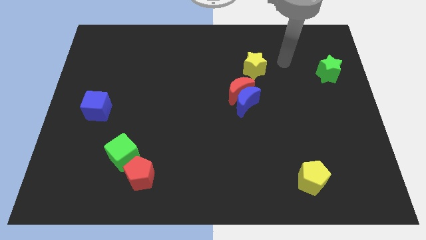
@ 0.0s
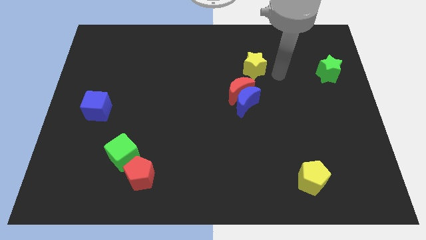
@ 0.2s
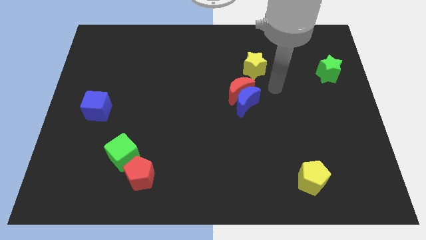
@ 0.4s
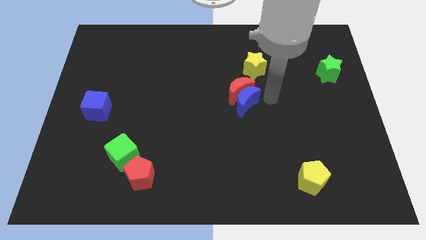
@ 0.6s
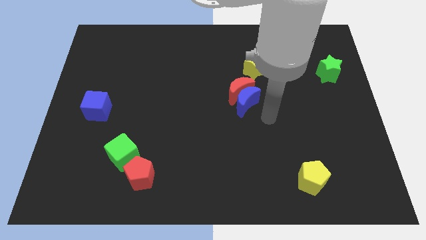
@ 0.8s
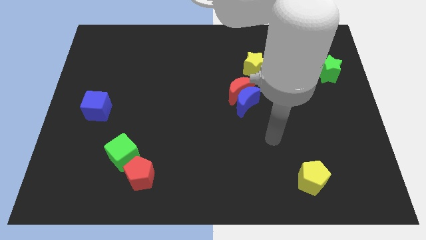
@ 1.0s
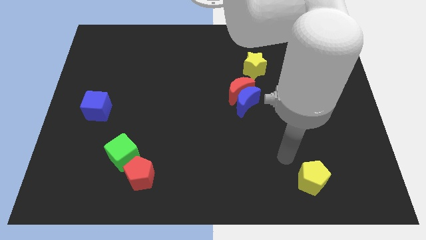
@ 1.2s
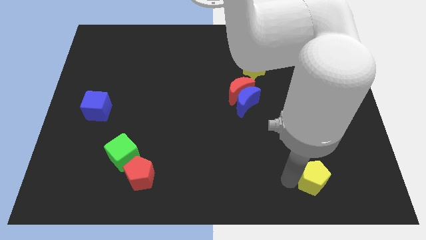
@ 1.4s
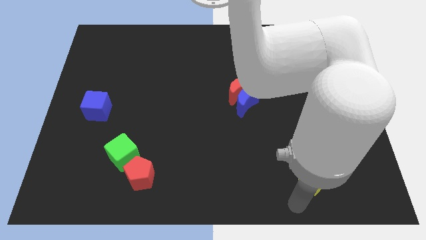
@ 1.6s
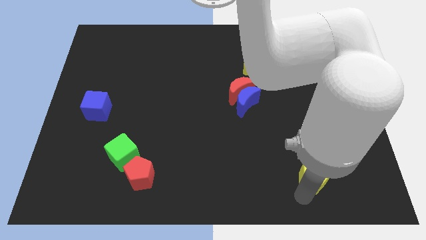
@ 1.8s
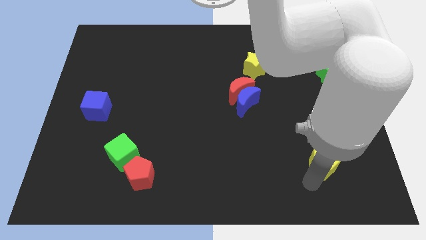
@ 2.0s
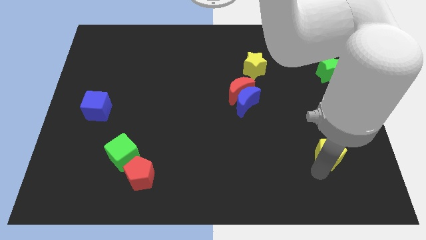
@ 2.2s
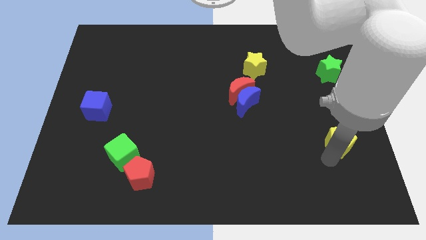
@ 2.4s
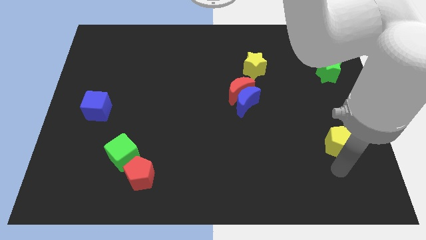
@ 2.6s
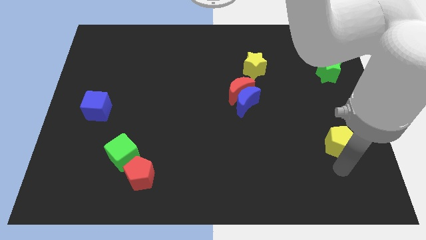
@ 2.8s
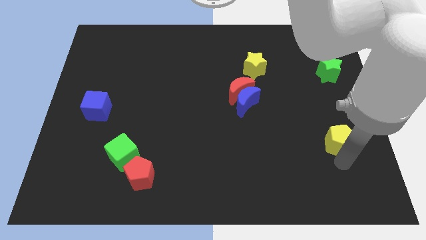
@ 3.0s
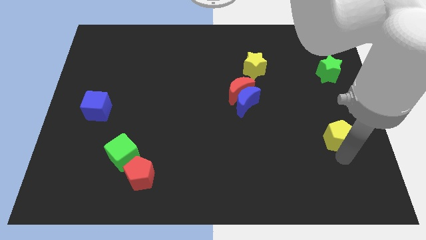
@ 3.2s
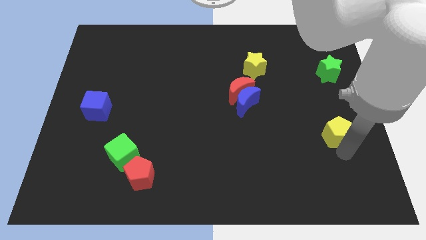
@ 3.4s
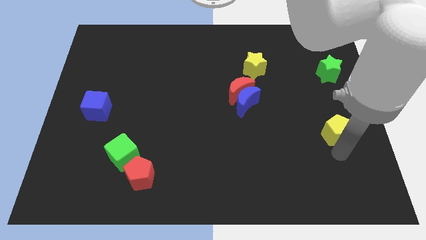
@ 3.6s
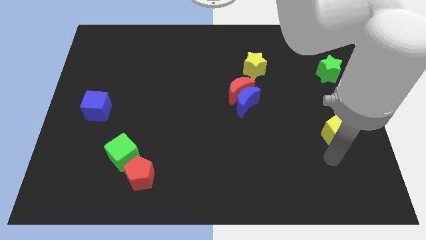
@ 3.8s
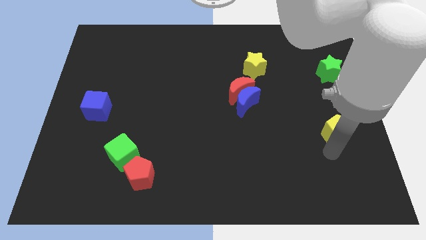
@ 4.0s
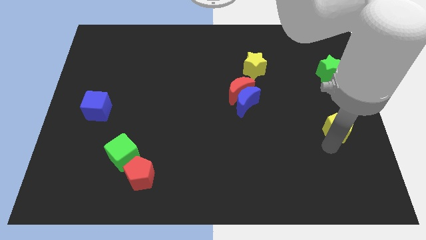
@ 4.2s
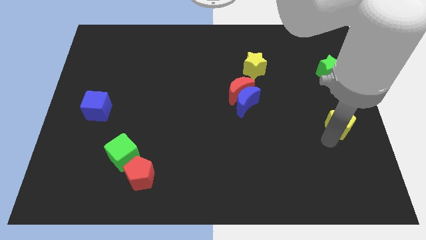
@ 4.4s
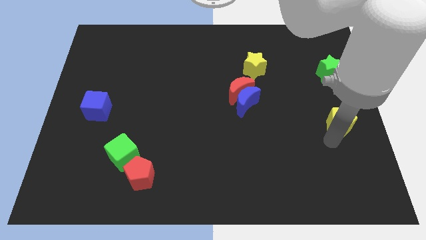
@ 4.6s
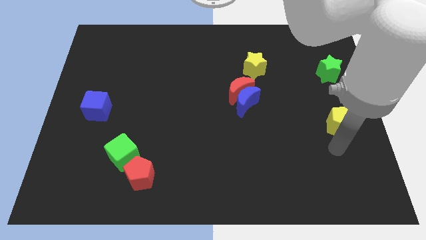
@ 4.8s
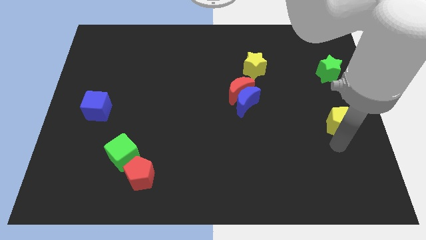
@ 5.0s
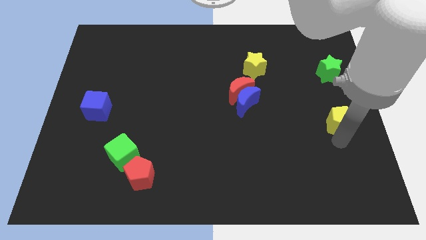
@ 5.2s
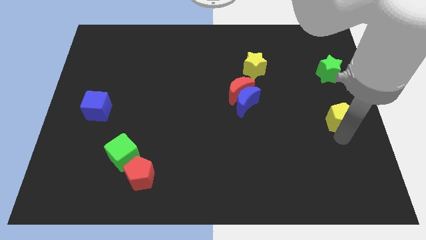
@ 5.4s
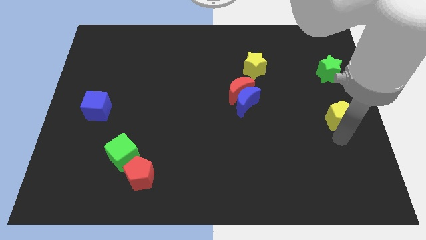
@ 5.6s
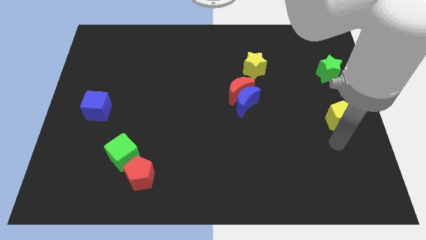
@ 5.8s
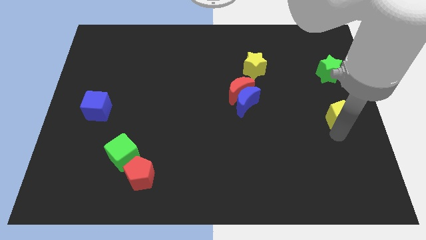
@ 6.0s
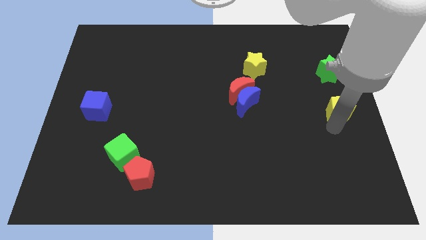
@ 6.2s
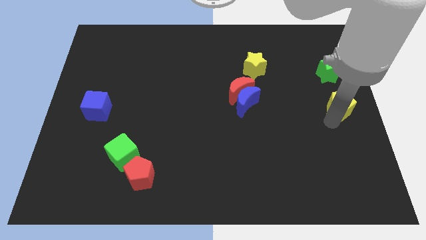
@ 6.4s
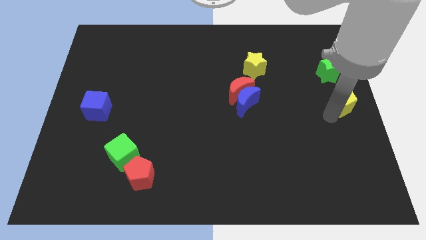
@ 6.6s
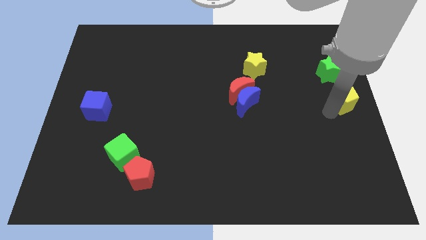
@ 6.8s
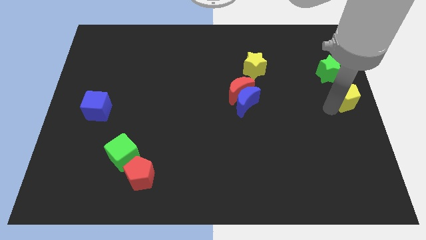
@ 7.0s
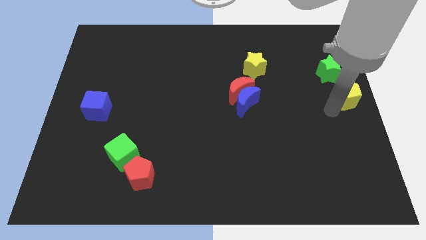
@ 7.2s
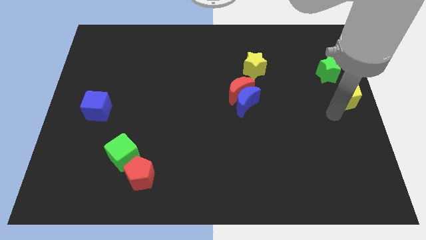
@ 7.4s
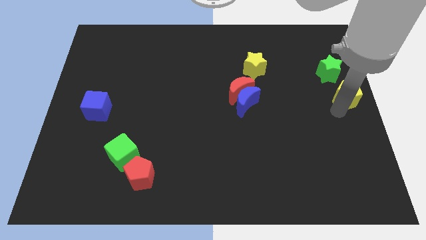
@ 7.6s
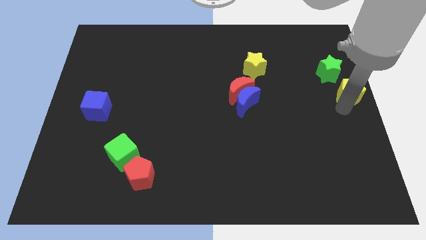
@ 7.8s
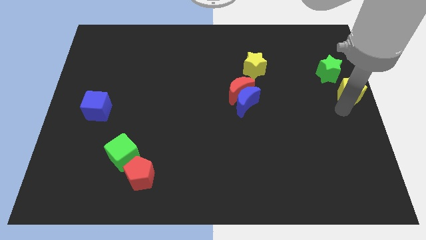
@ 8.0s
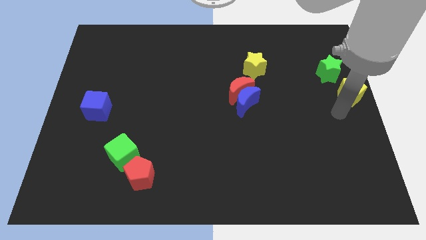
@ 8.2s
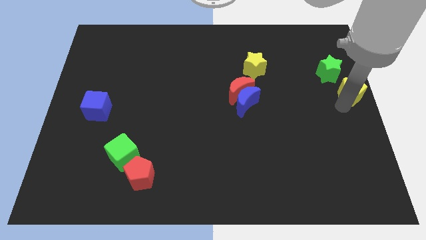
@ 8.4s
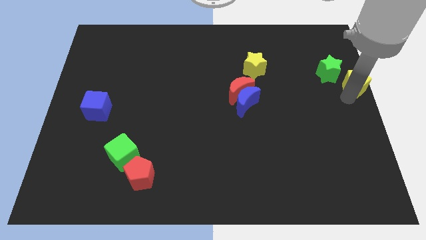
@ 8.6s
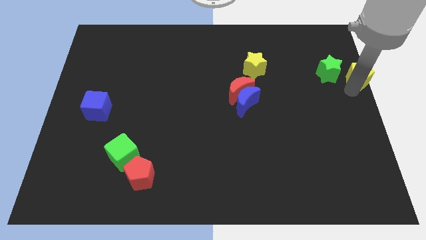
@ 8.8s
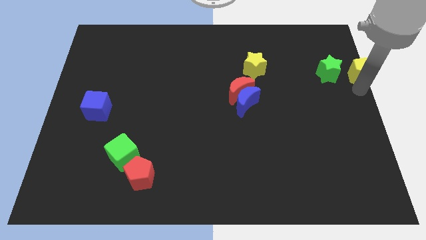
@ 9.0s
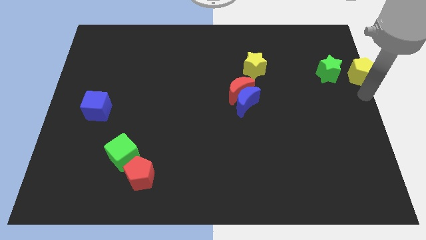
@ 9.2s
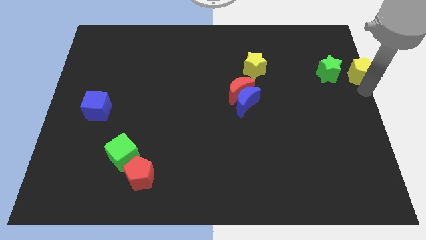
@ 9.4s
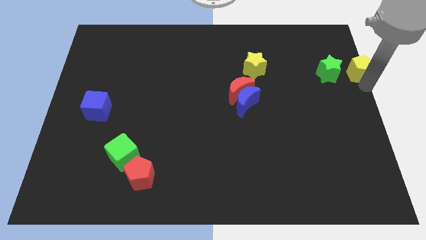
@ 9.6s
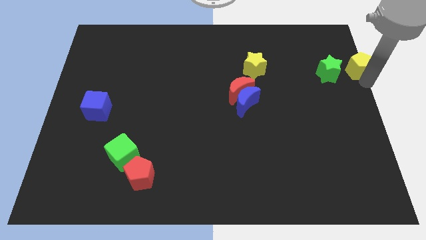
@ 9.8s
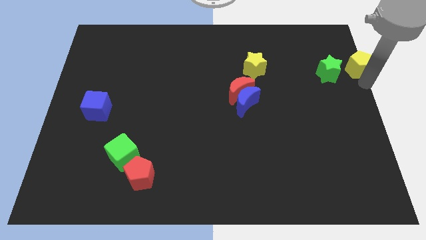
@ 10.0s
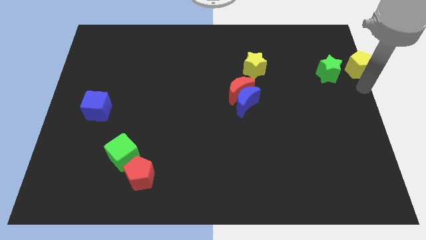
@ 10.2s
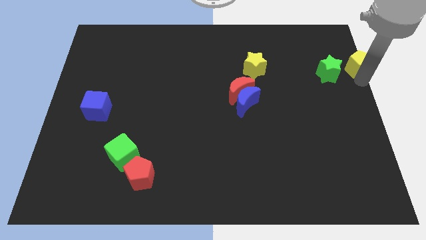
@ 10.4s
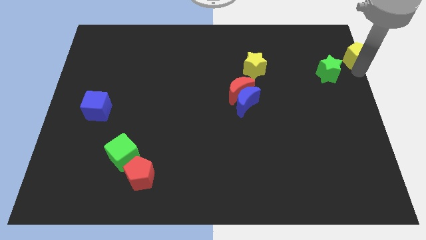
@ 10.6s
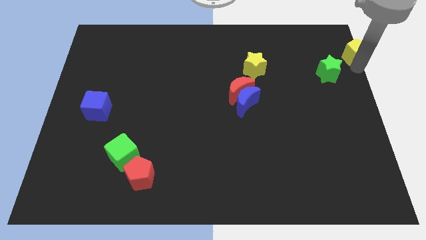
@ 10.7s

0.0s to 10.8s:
put the yellow pentagon to the top right of the board
